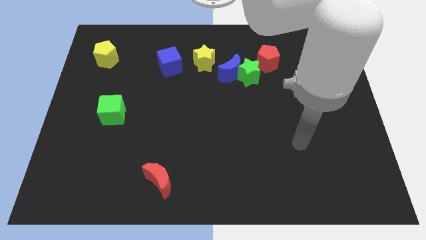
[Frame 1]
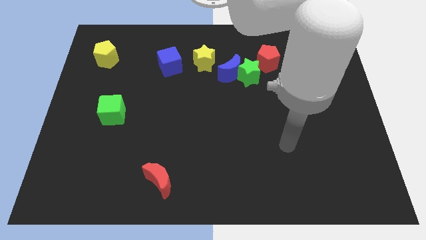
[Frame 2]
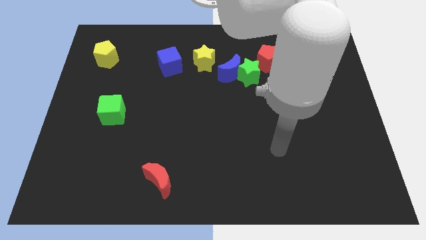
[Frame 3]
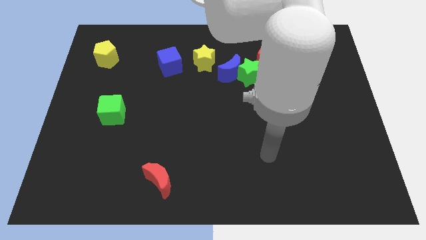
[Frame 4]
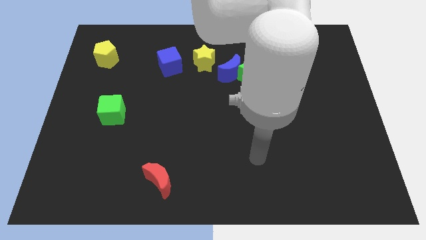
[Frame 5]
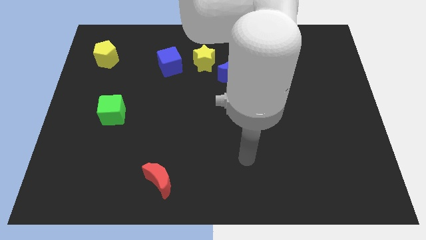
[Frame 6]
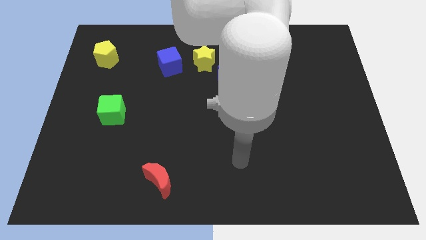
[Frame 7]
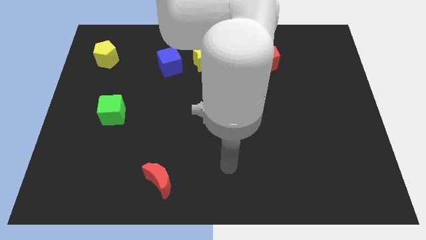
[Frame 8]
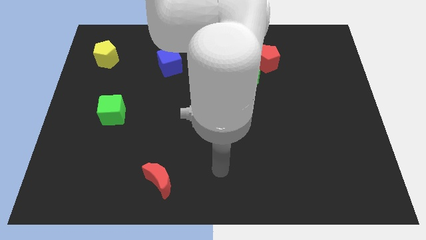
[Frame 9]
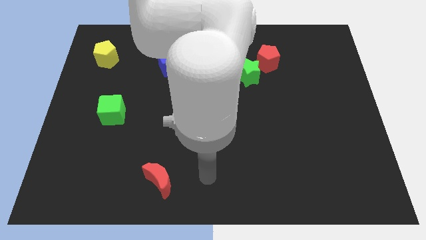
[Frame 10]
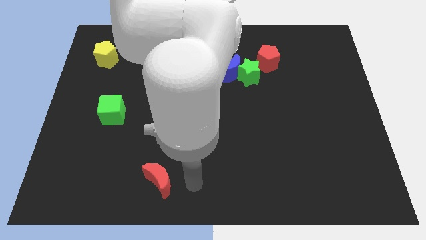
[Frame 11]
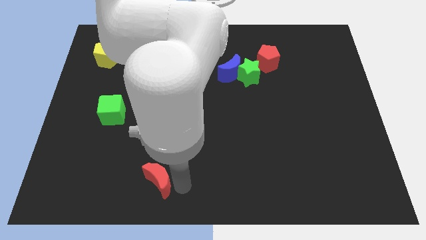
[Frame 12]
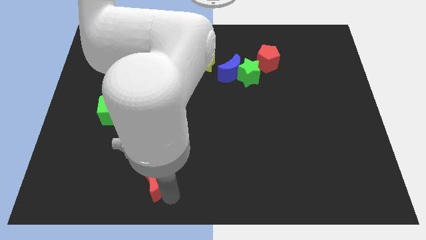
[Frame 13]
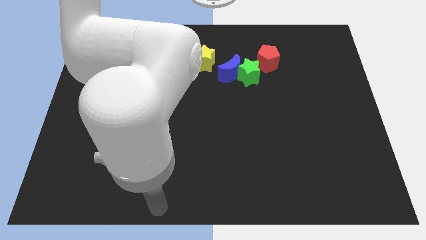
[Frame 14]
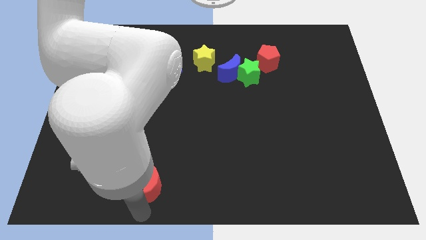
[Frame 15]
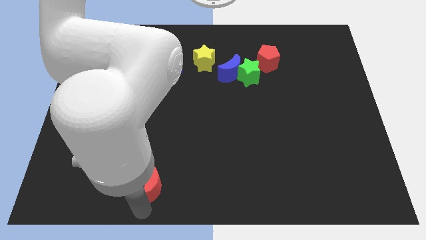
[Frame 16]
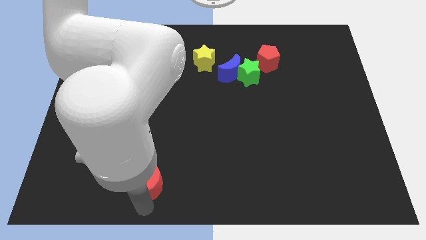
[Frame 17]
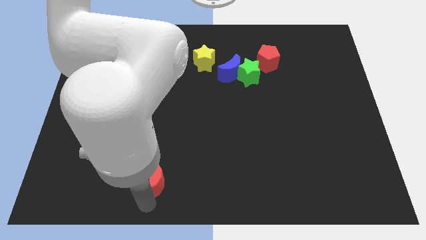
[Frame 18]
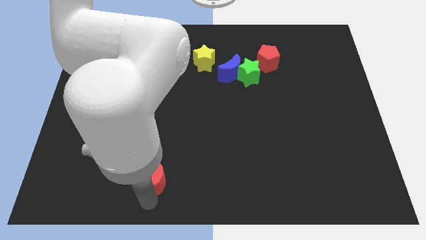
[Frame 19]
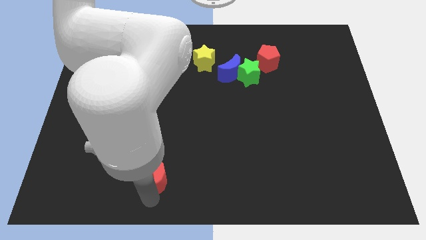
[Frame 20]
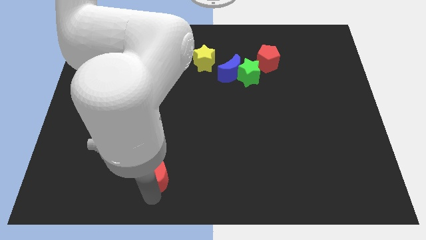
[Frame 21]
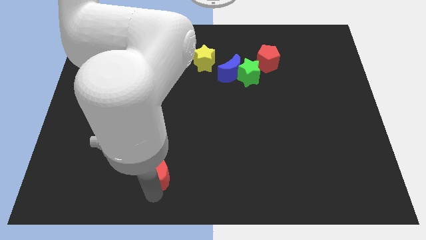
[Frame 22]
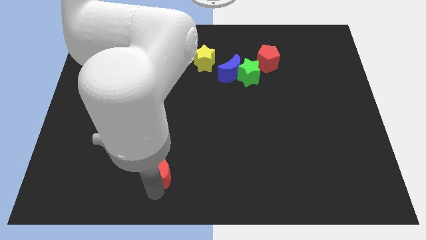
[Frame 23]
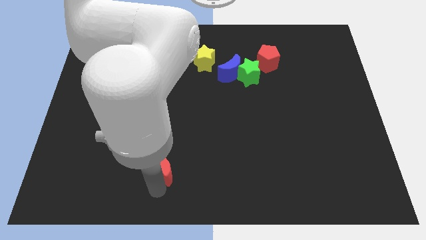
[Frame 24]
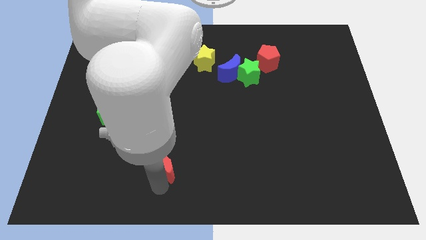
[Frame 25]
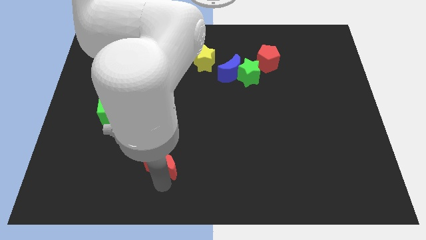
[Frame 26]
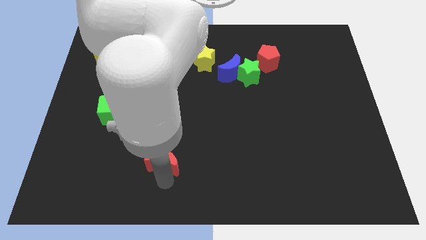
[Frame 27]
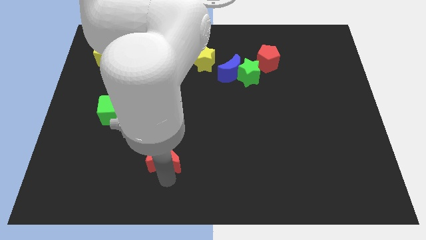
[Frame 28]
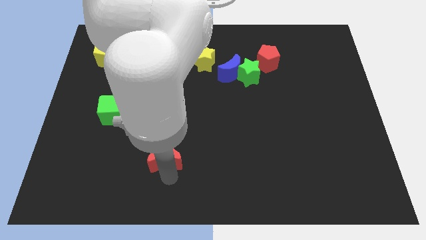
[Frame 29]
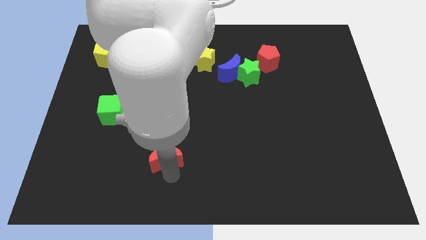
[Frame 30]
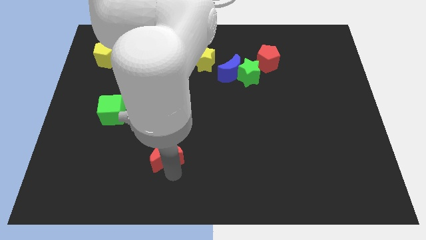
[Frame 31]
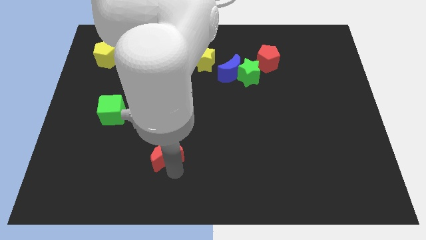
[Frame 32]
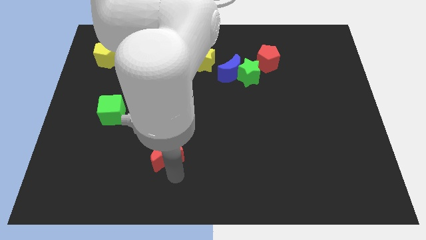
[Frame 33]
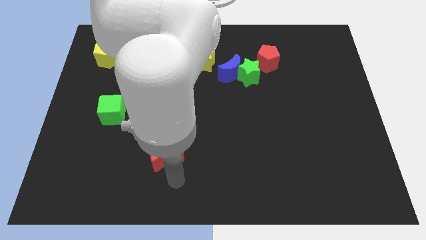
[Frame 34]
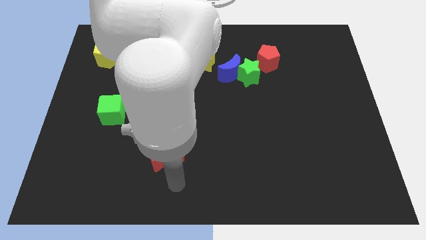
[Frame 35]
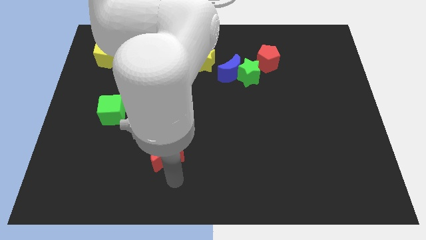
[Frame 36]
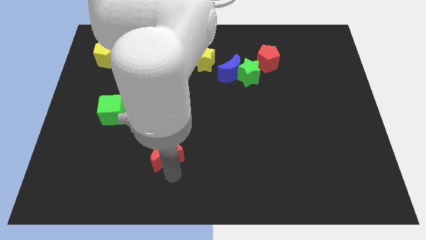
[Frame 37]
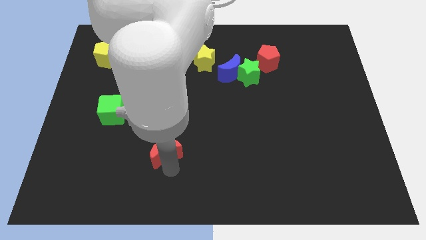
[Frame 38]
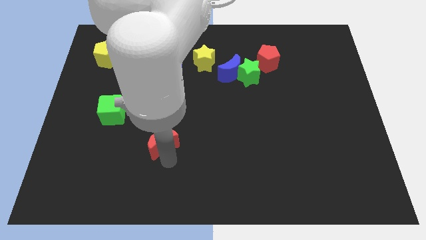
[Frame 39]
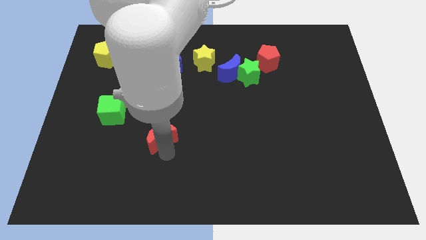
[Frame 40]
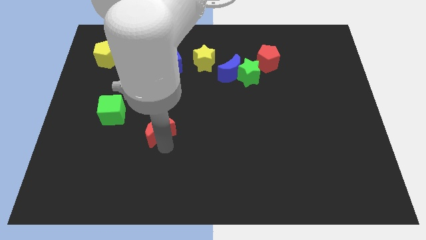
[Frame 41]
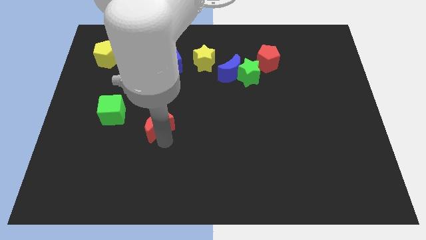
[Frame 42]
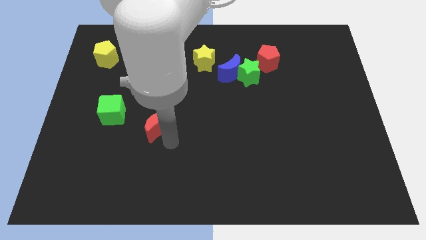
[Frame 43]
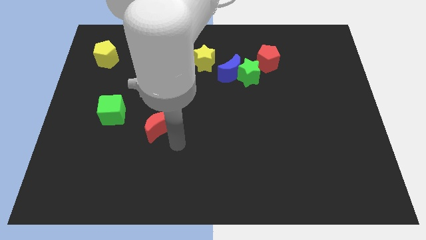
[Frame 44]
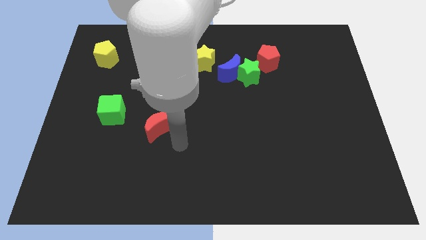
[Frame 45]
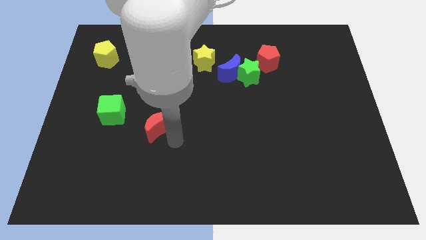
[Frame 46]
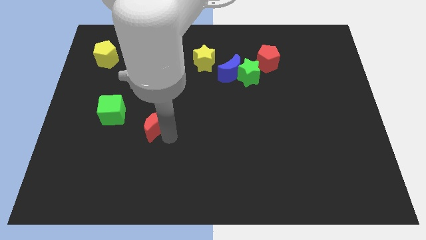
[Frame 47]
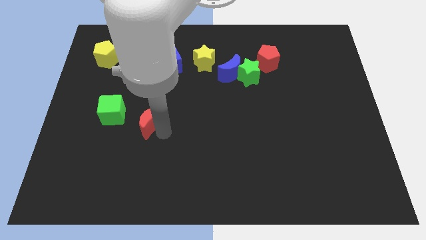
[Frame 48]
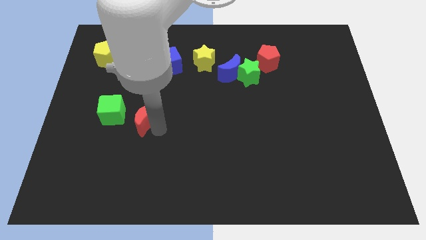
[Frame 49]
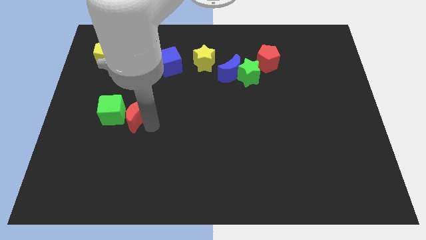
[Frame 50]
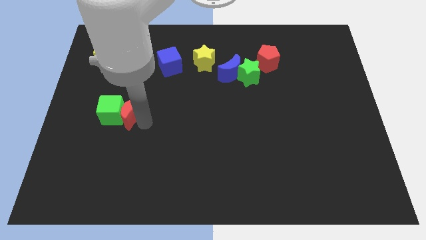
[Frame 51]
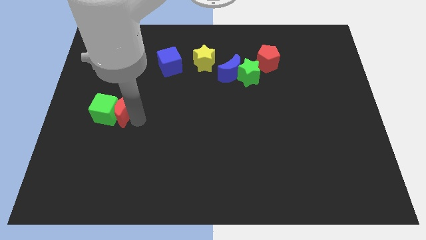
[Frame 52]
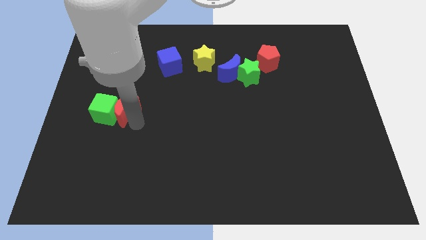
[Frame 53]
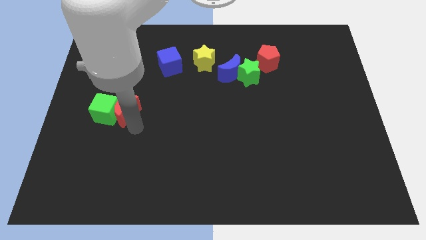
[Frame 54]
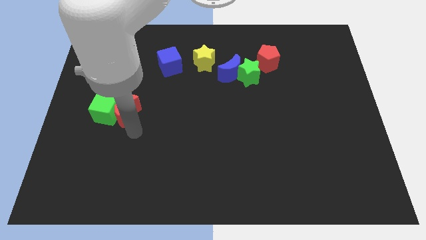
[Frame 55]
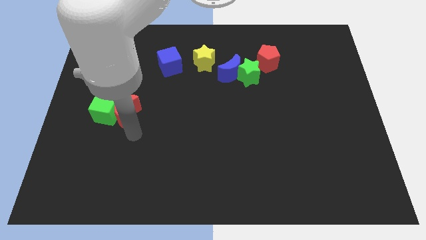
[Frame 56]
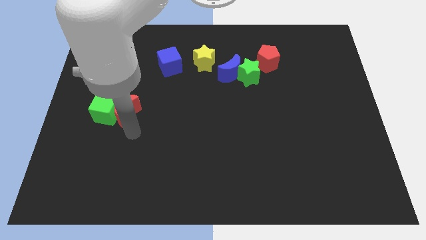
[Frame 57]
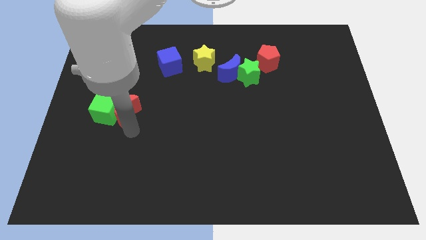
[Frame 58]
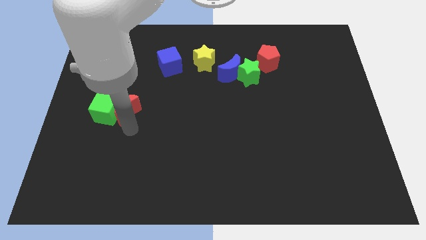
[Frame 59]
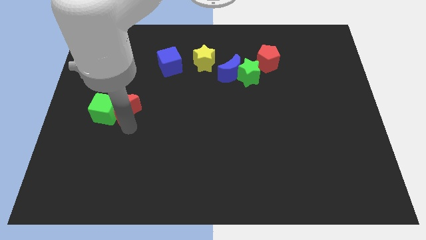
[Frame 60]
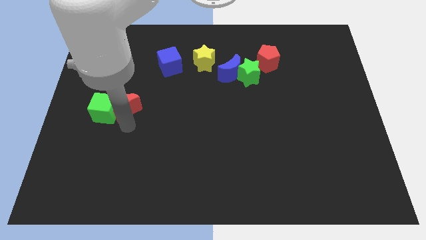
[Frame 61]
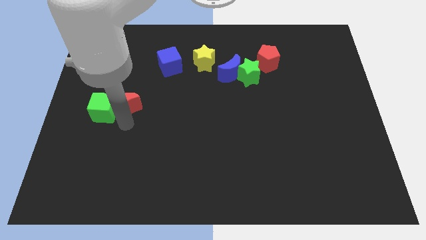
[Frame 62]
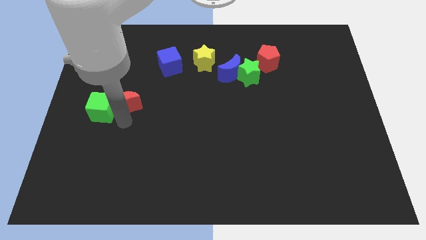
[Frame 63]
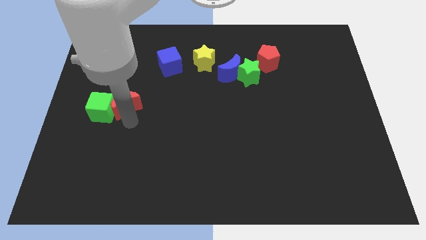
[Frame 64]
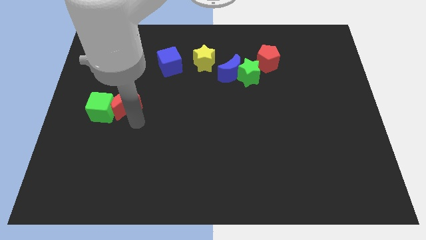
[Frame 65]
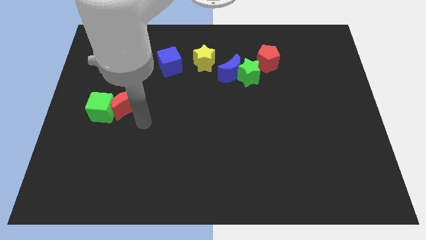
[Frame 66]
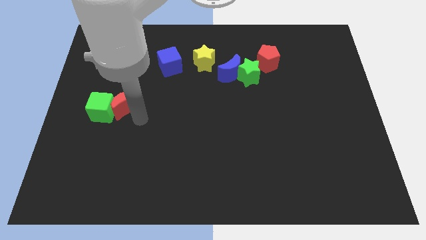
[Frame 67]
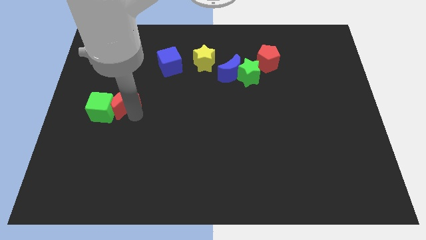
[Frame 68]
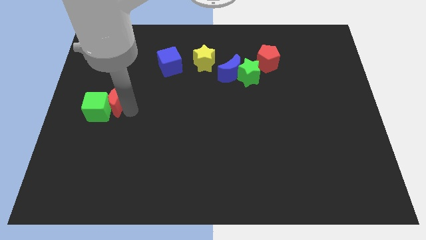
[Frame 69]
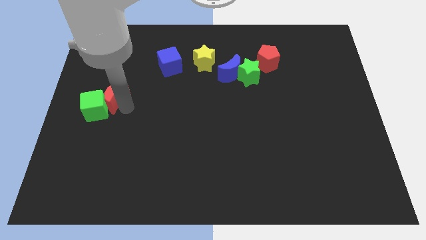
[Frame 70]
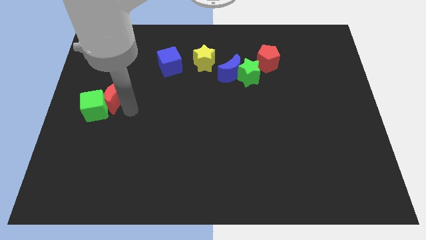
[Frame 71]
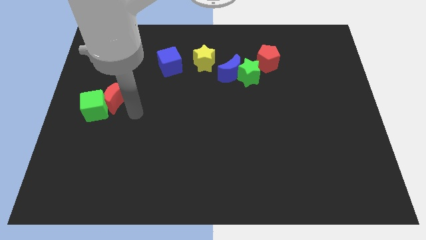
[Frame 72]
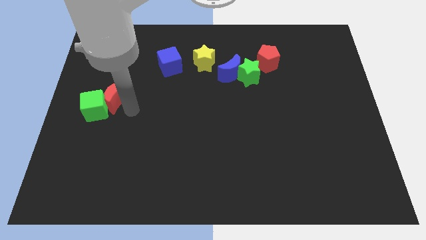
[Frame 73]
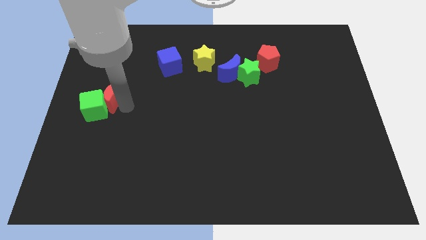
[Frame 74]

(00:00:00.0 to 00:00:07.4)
move the red moon to the bottom of the yellow pentagon
